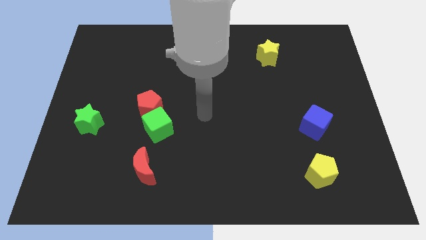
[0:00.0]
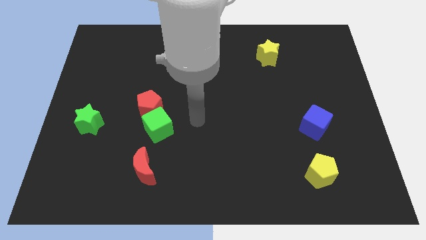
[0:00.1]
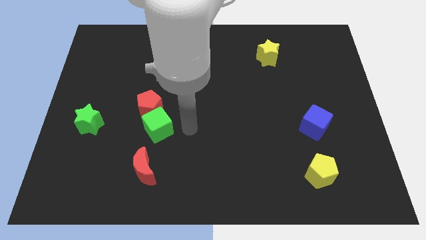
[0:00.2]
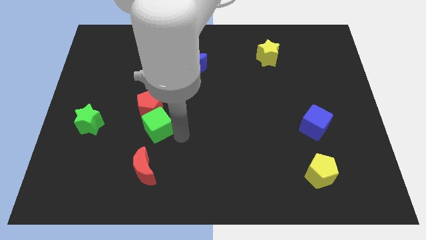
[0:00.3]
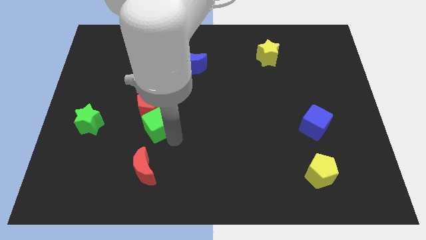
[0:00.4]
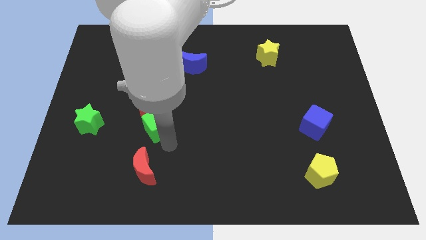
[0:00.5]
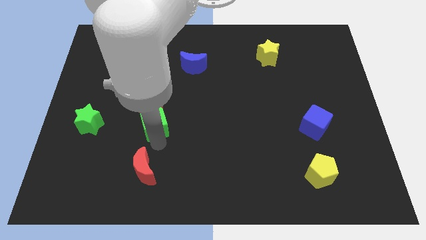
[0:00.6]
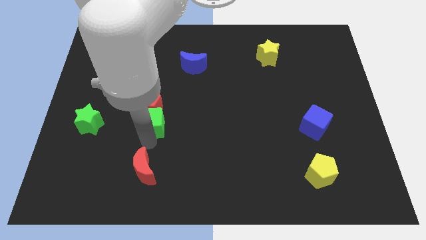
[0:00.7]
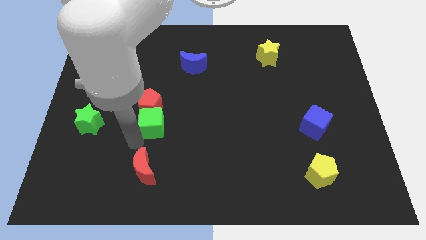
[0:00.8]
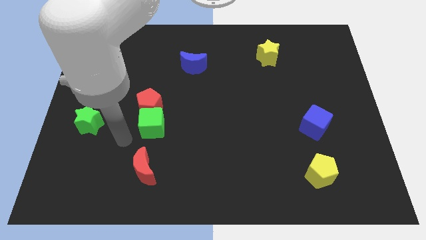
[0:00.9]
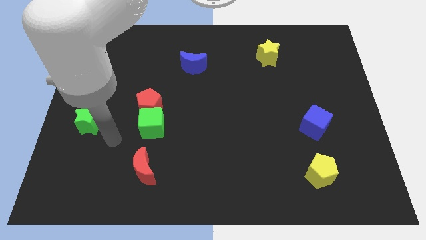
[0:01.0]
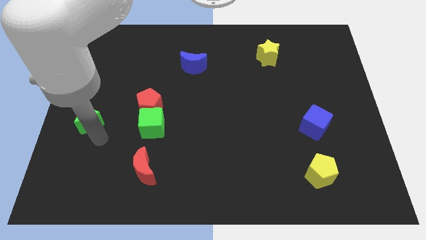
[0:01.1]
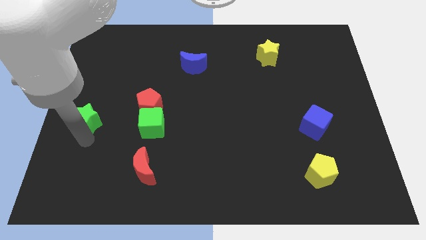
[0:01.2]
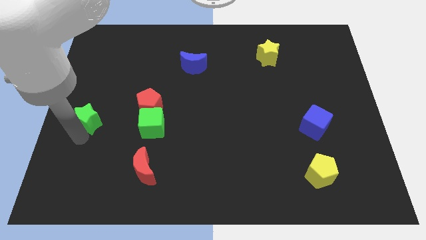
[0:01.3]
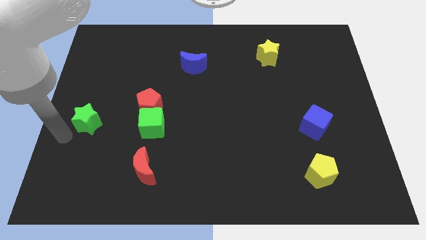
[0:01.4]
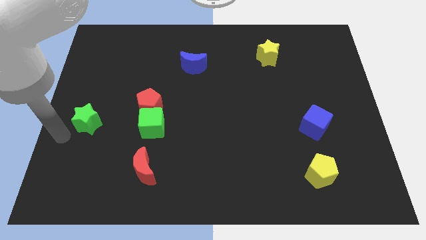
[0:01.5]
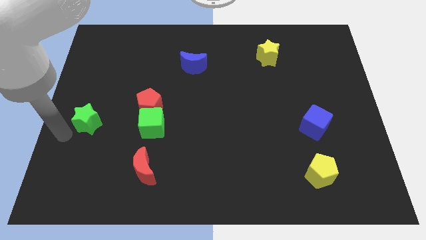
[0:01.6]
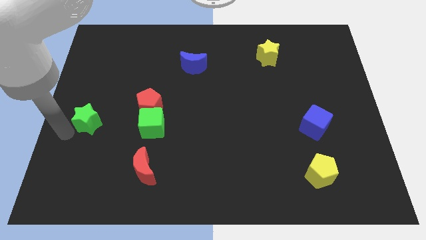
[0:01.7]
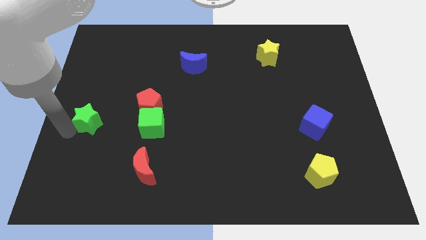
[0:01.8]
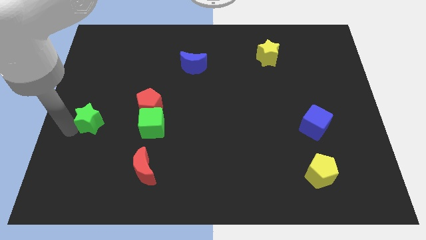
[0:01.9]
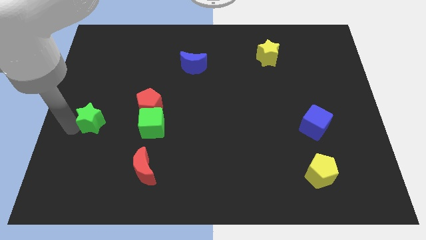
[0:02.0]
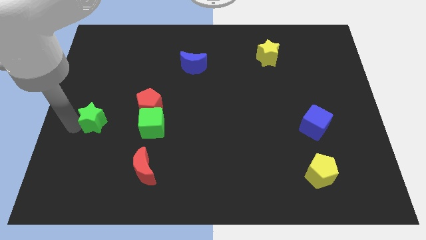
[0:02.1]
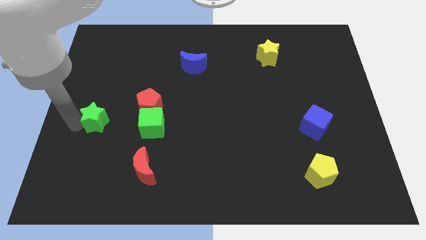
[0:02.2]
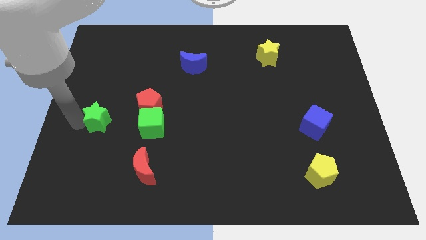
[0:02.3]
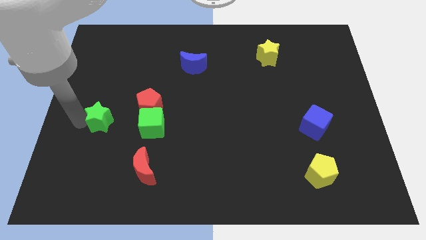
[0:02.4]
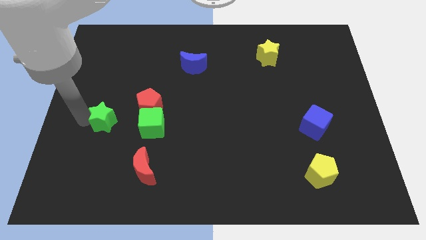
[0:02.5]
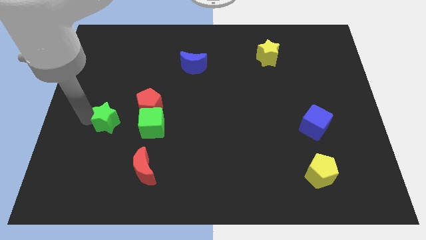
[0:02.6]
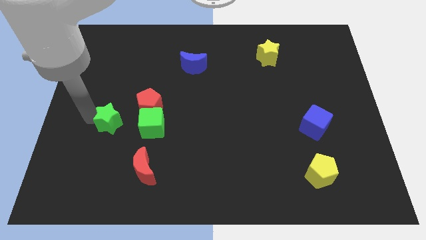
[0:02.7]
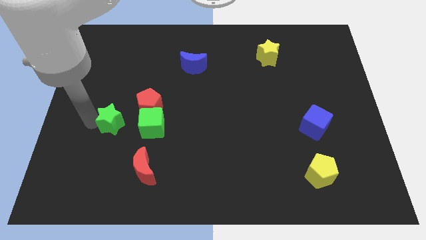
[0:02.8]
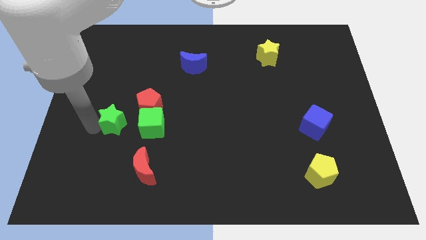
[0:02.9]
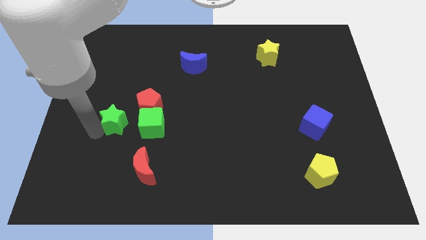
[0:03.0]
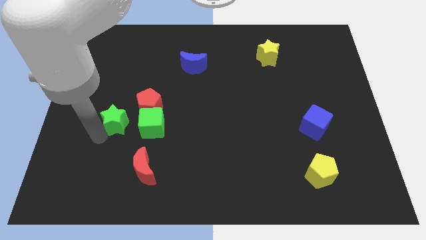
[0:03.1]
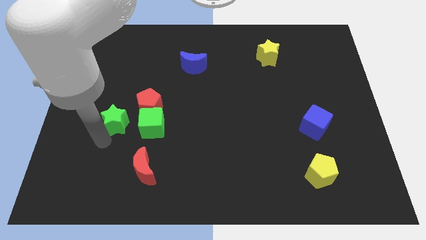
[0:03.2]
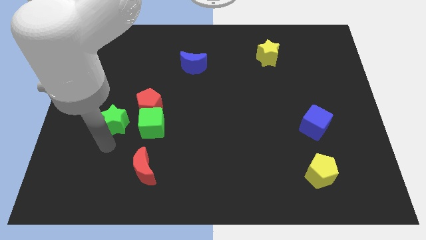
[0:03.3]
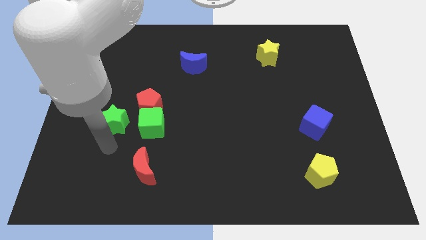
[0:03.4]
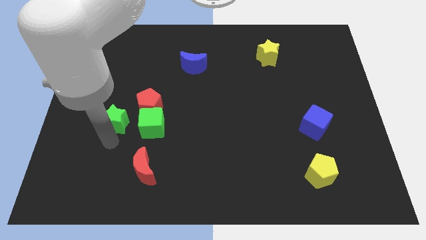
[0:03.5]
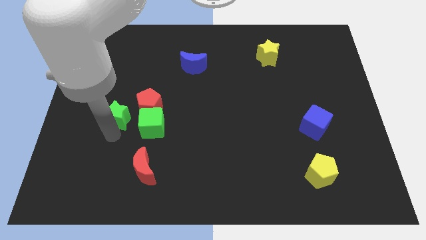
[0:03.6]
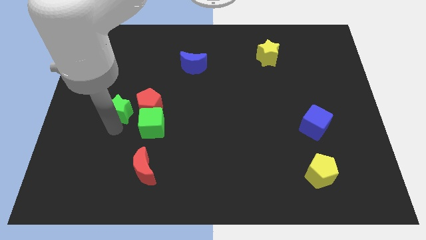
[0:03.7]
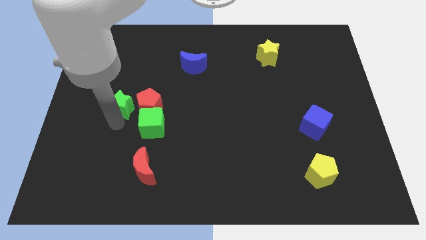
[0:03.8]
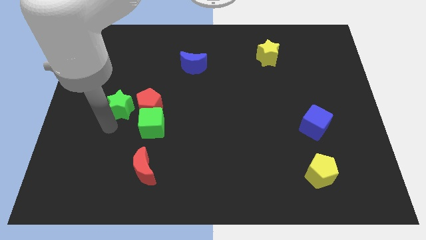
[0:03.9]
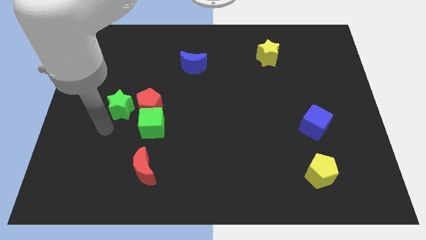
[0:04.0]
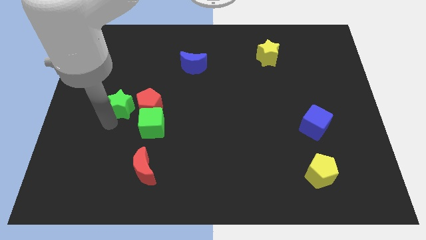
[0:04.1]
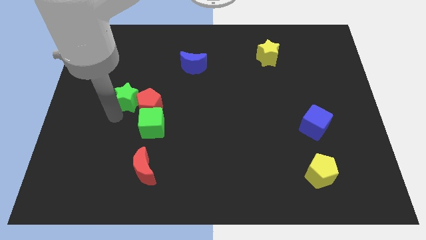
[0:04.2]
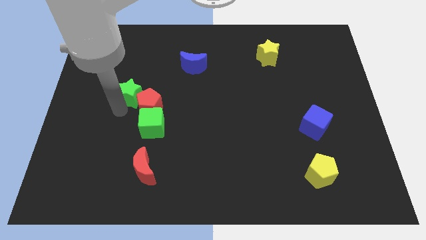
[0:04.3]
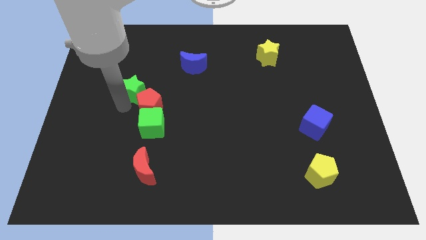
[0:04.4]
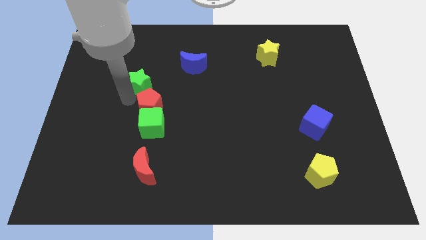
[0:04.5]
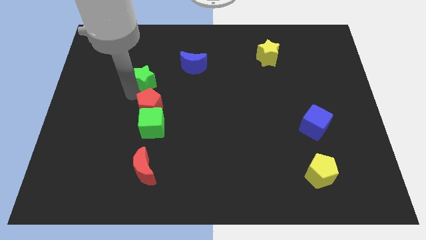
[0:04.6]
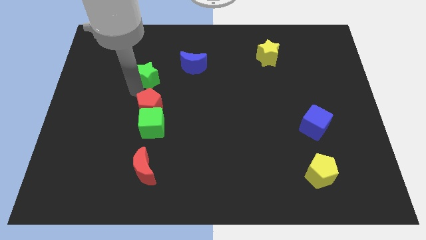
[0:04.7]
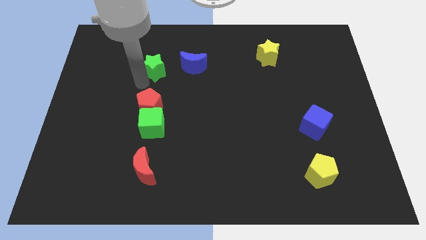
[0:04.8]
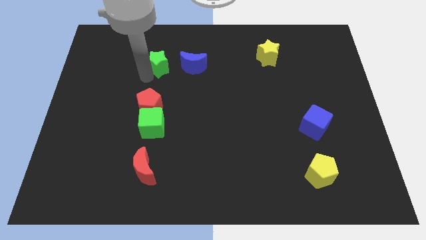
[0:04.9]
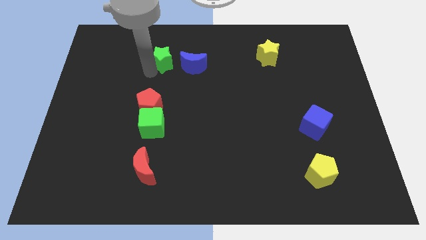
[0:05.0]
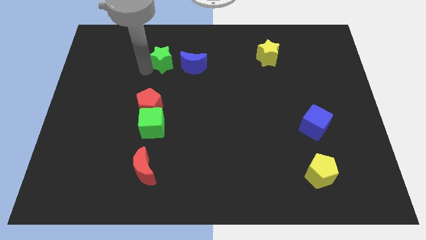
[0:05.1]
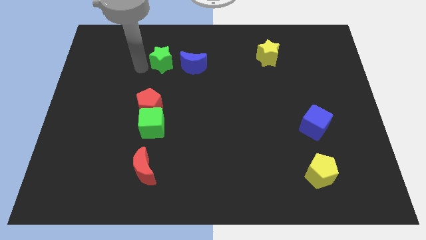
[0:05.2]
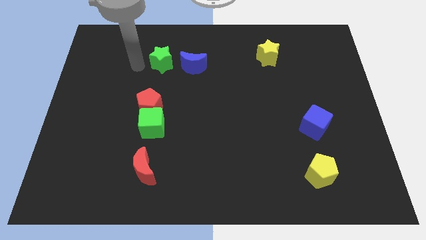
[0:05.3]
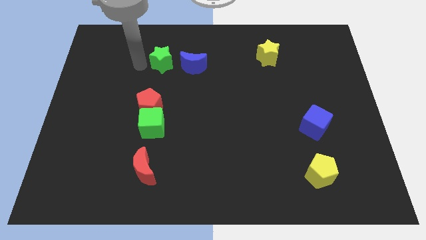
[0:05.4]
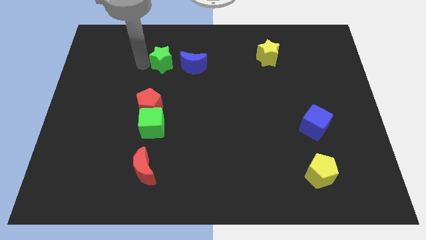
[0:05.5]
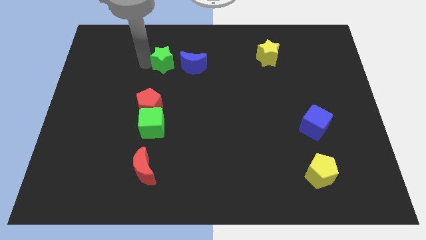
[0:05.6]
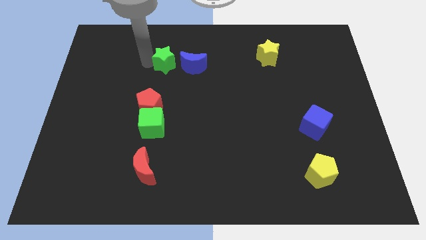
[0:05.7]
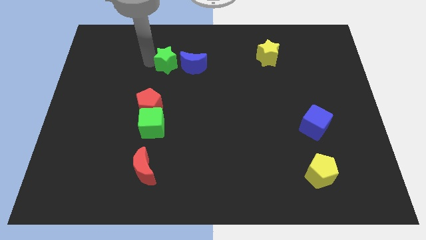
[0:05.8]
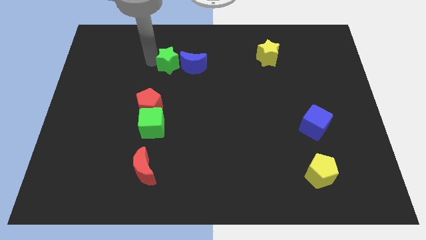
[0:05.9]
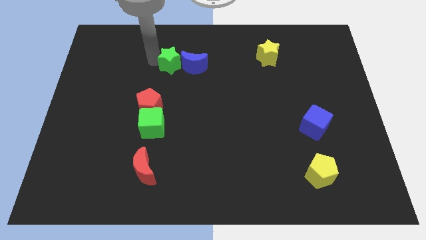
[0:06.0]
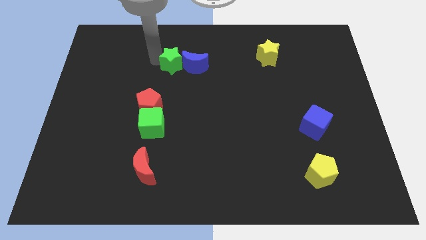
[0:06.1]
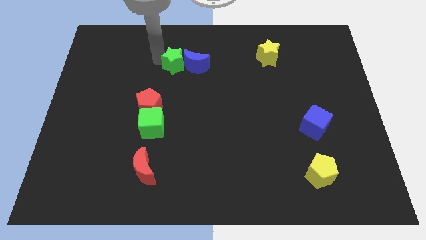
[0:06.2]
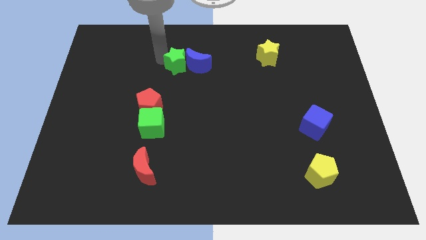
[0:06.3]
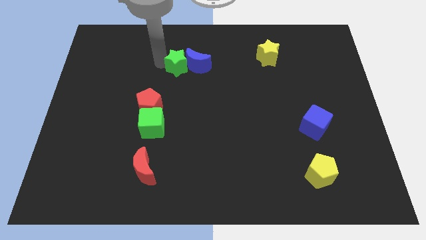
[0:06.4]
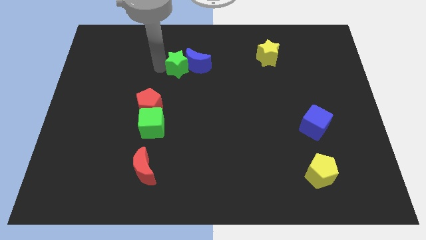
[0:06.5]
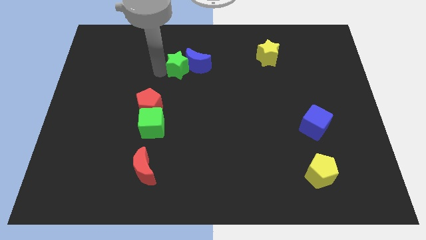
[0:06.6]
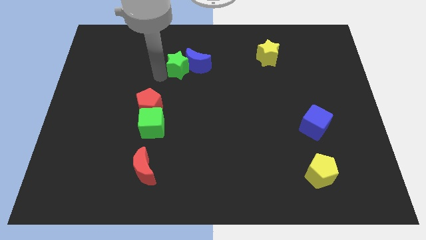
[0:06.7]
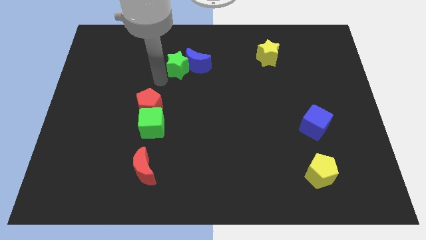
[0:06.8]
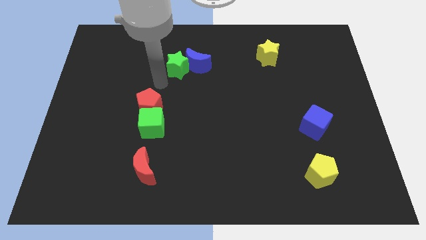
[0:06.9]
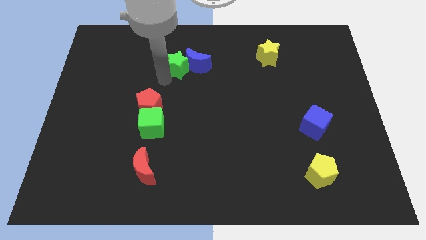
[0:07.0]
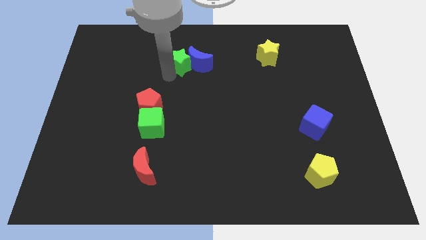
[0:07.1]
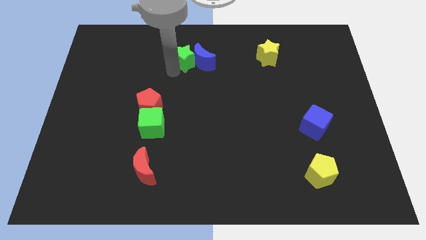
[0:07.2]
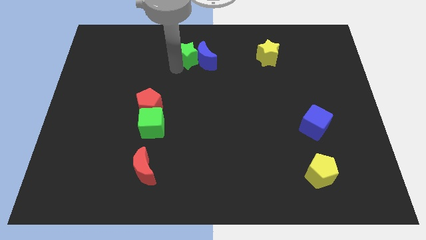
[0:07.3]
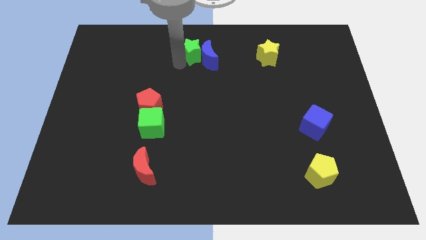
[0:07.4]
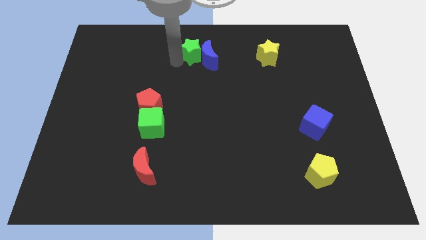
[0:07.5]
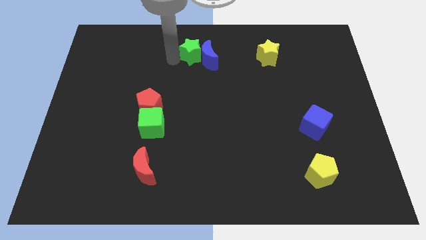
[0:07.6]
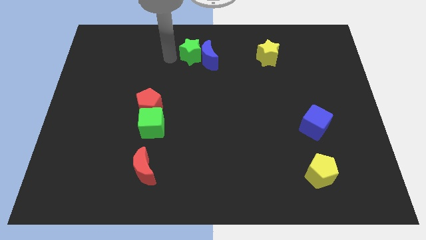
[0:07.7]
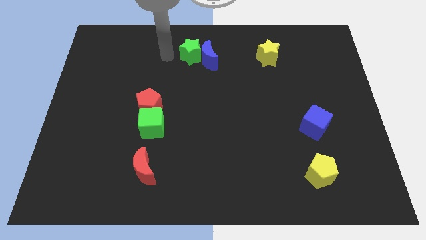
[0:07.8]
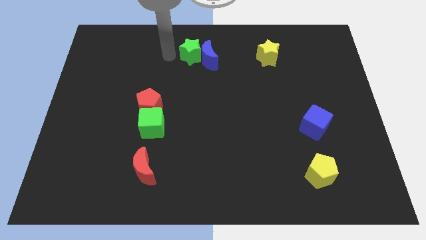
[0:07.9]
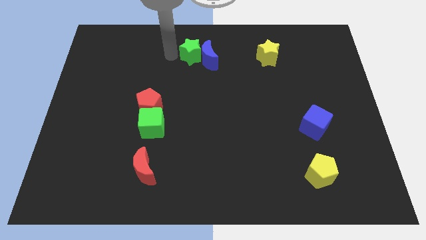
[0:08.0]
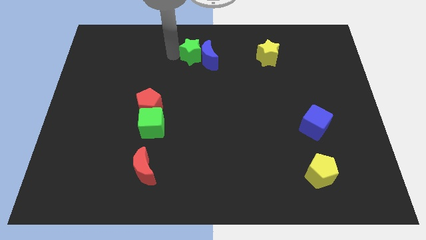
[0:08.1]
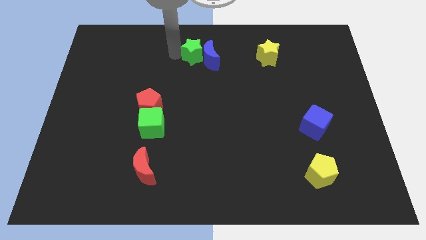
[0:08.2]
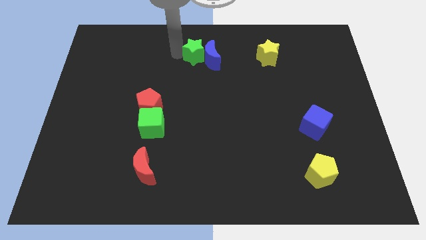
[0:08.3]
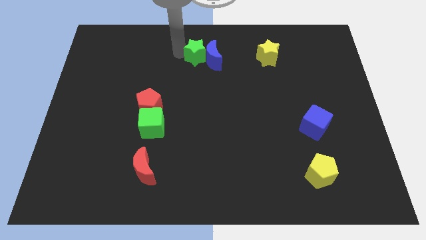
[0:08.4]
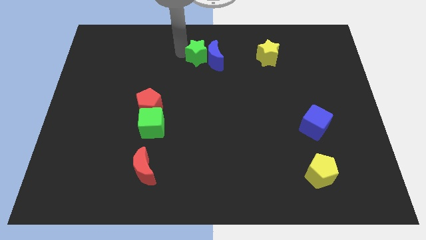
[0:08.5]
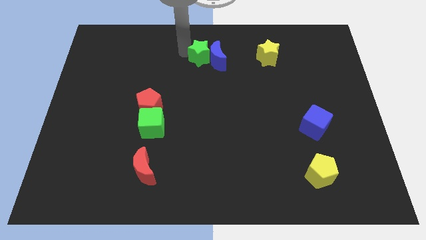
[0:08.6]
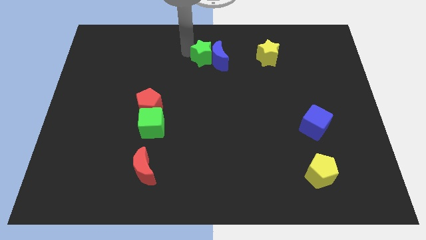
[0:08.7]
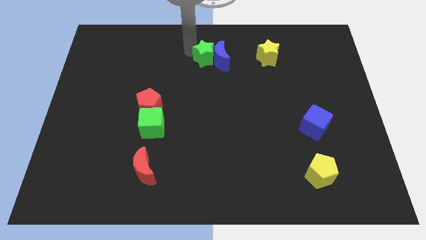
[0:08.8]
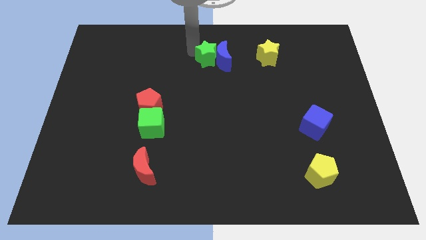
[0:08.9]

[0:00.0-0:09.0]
slide the green star just left of the yellow star
